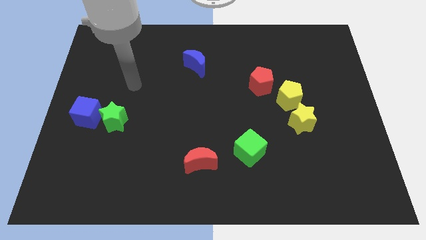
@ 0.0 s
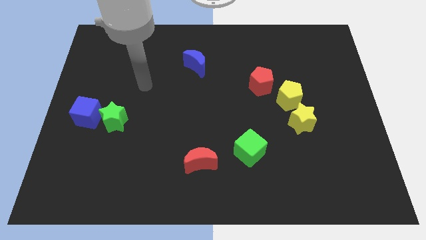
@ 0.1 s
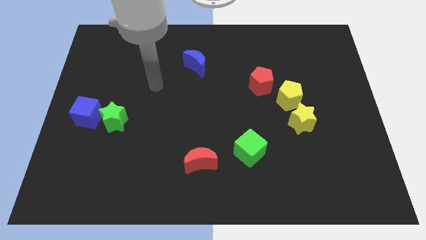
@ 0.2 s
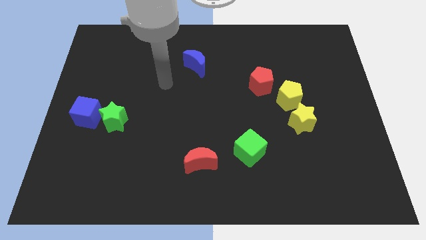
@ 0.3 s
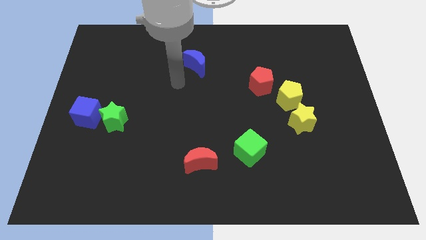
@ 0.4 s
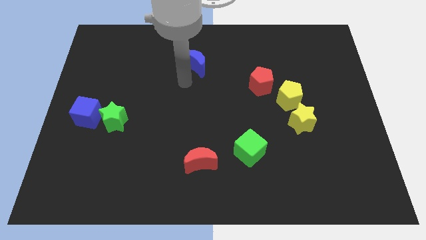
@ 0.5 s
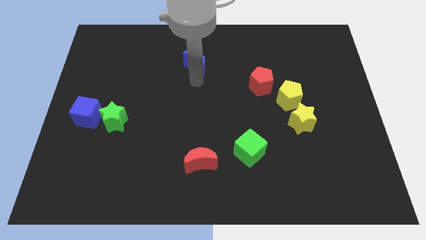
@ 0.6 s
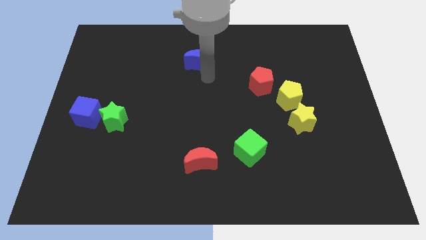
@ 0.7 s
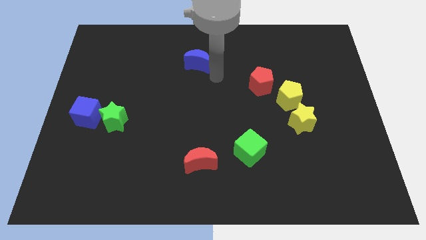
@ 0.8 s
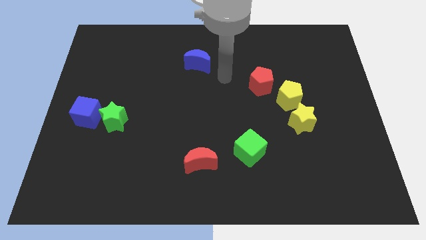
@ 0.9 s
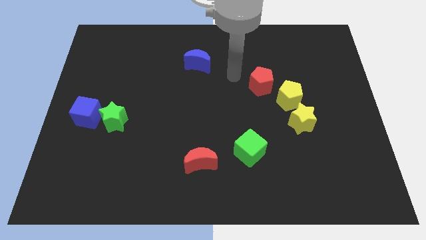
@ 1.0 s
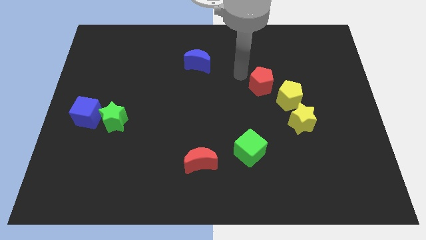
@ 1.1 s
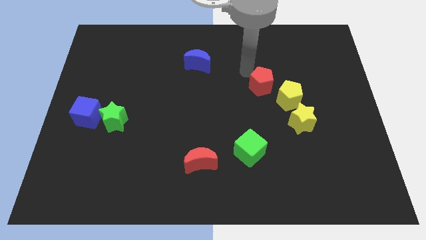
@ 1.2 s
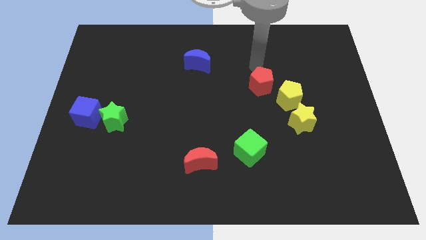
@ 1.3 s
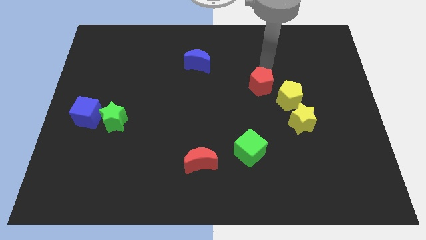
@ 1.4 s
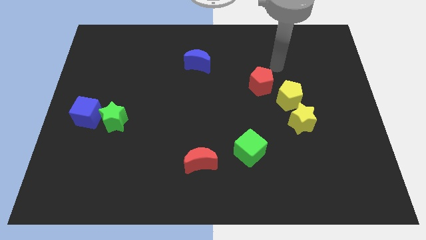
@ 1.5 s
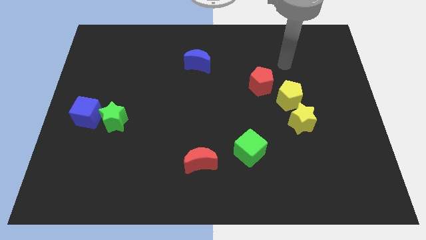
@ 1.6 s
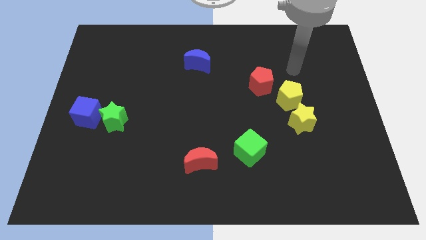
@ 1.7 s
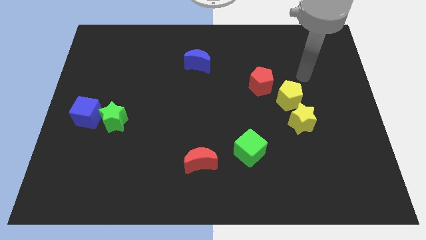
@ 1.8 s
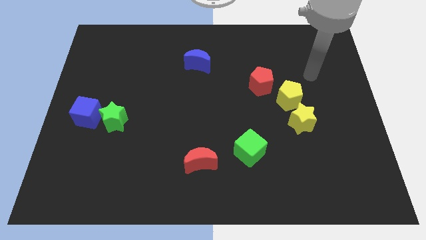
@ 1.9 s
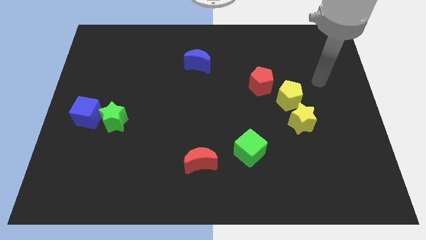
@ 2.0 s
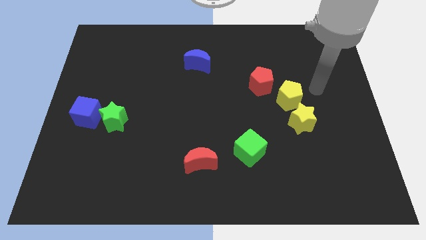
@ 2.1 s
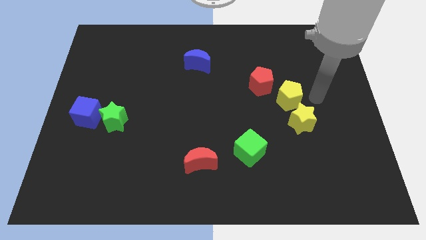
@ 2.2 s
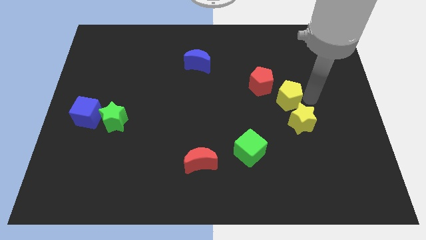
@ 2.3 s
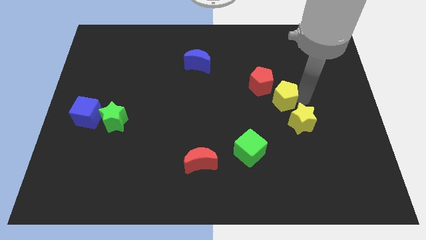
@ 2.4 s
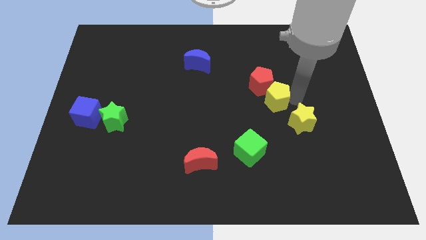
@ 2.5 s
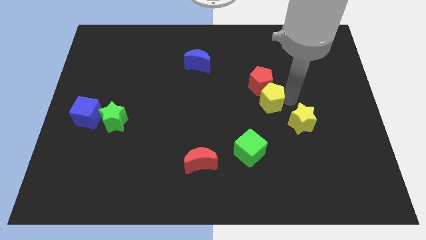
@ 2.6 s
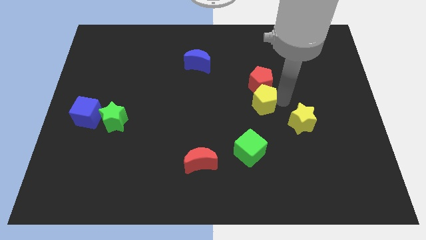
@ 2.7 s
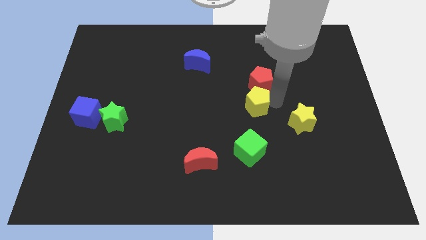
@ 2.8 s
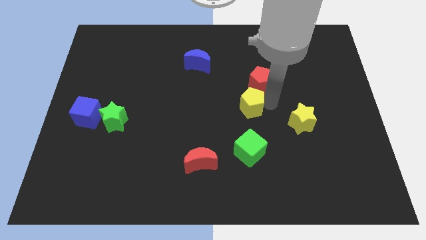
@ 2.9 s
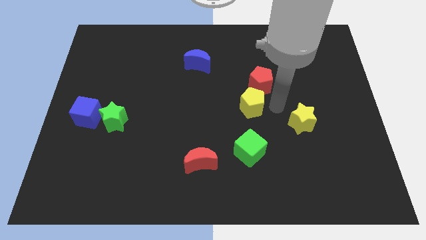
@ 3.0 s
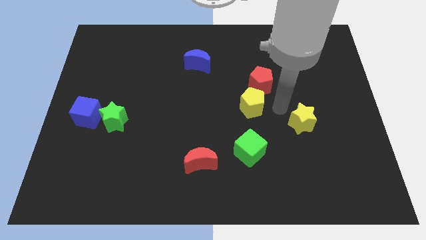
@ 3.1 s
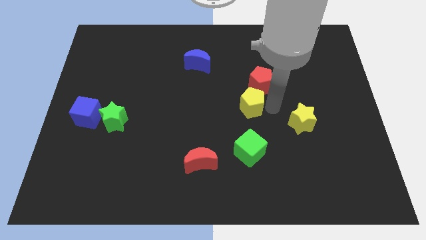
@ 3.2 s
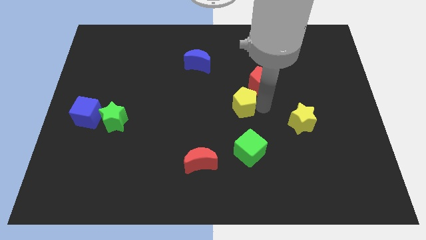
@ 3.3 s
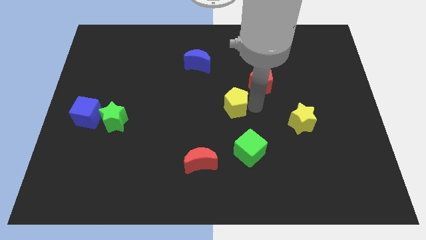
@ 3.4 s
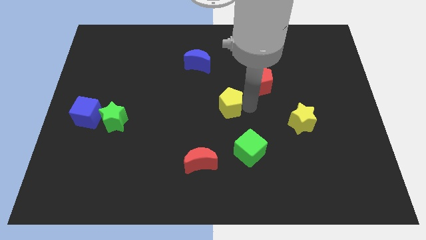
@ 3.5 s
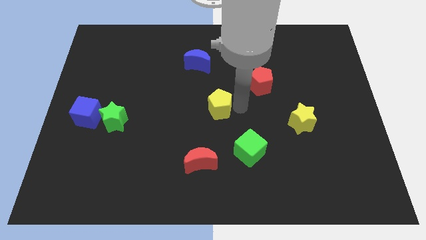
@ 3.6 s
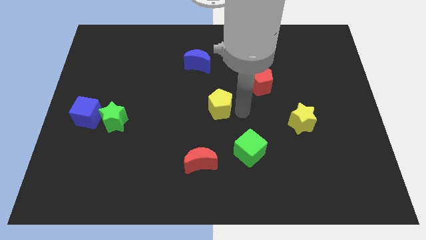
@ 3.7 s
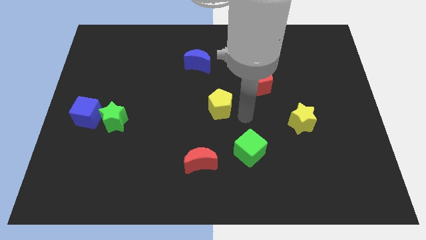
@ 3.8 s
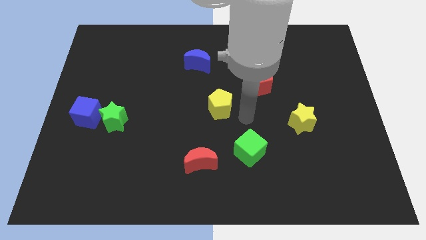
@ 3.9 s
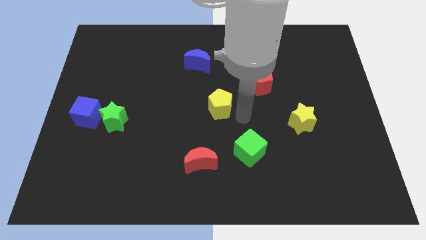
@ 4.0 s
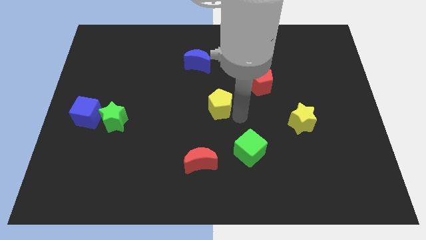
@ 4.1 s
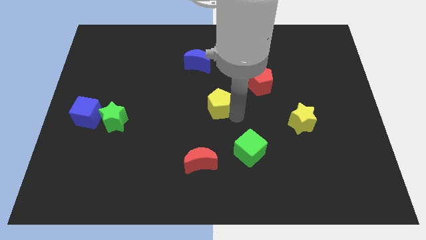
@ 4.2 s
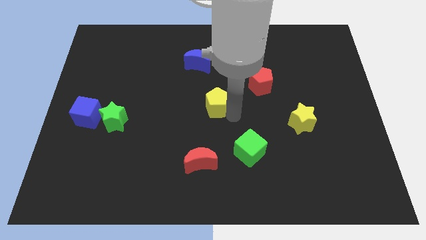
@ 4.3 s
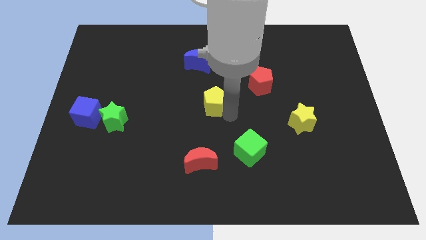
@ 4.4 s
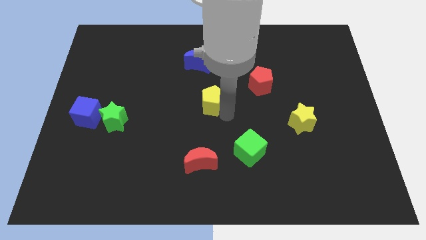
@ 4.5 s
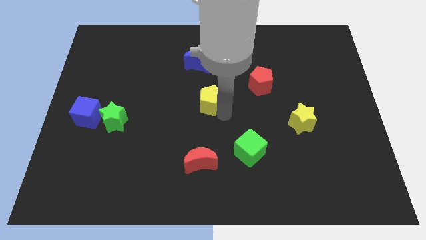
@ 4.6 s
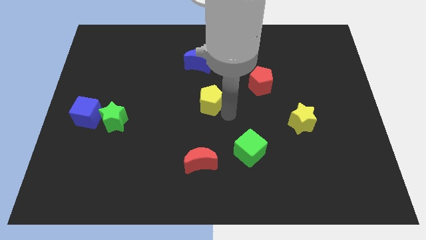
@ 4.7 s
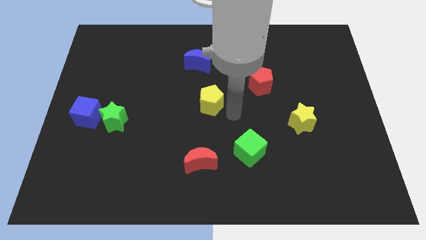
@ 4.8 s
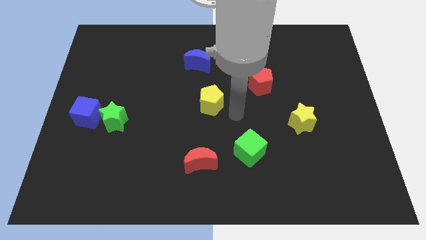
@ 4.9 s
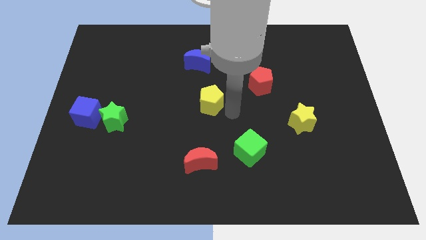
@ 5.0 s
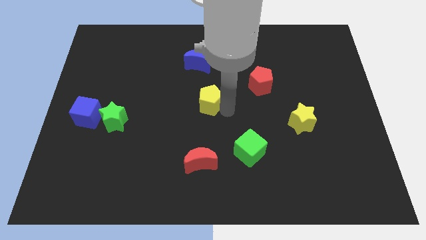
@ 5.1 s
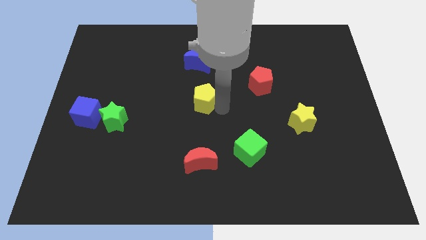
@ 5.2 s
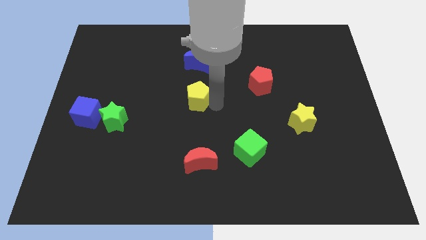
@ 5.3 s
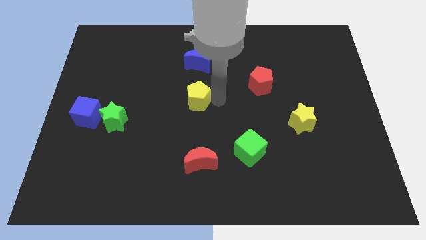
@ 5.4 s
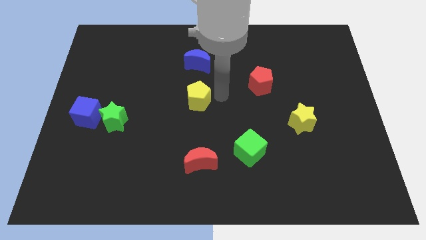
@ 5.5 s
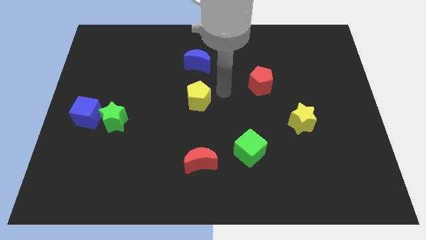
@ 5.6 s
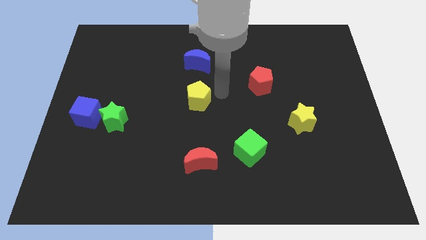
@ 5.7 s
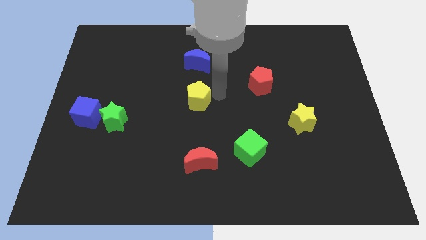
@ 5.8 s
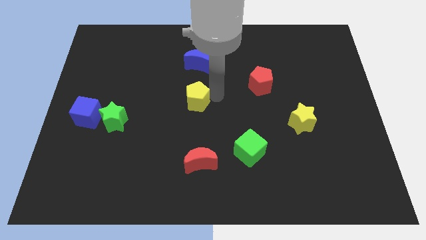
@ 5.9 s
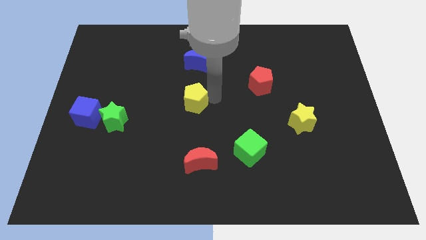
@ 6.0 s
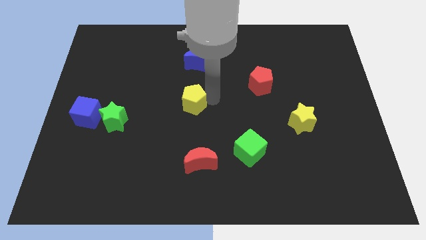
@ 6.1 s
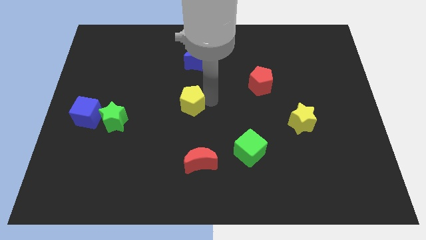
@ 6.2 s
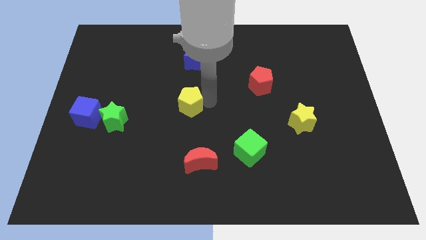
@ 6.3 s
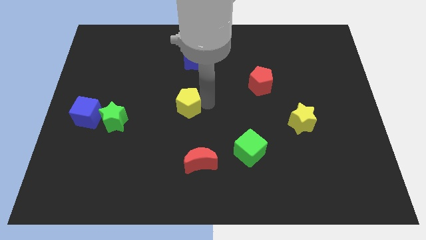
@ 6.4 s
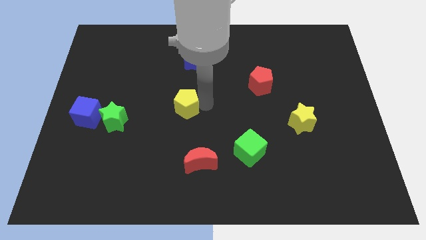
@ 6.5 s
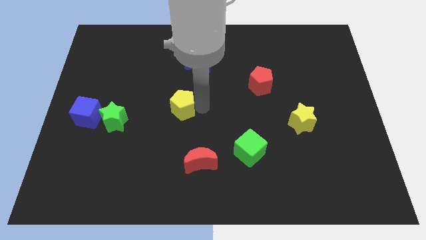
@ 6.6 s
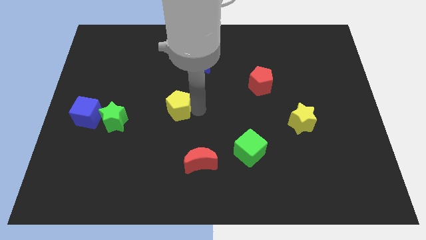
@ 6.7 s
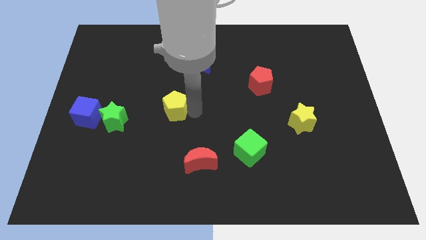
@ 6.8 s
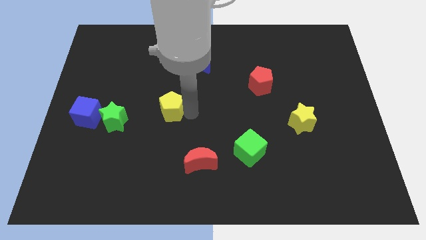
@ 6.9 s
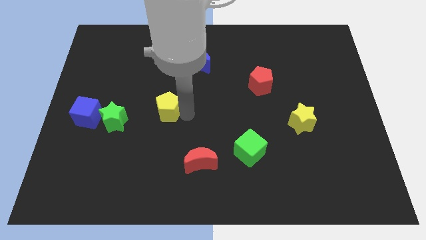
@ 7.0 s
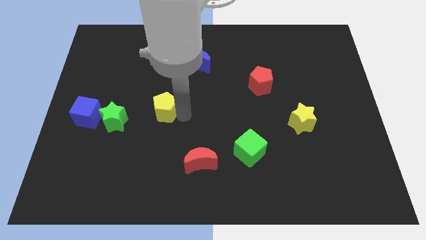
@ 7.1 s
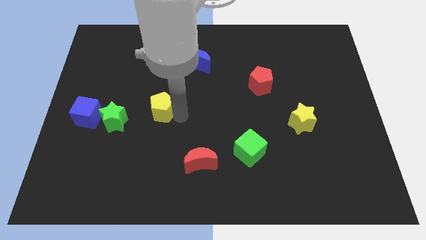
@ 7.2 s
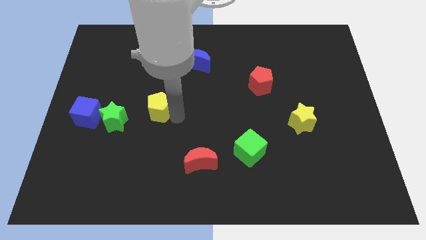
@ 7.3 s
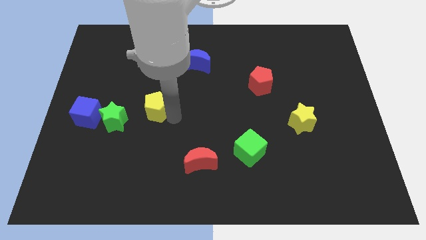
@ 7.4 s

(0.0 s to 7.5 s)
slide the yellow pentagon to the top right side of the green star
